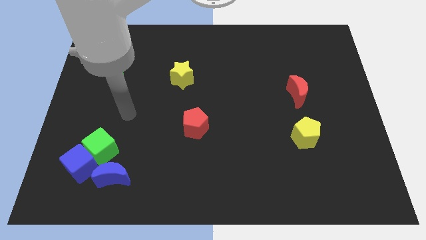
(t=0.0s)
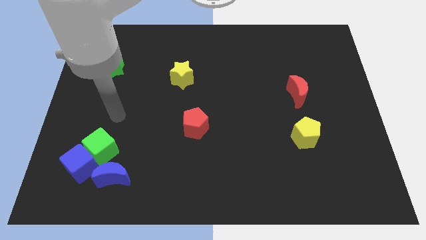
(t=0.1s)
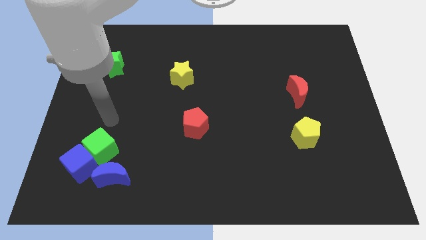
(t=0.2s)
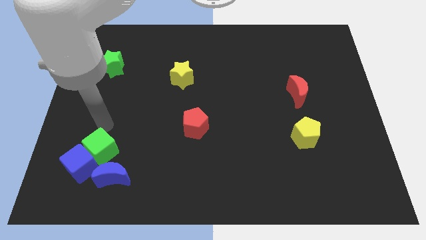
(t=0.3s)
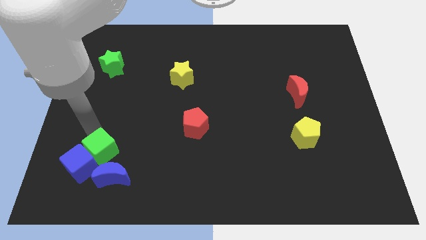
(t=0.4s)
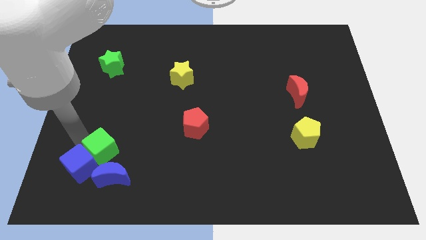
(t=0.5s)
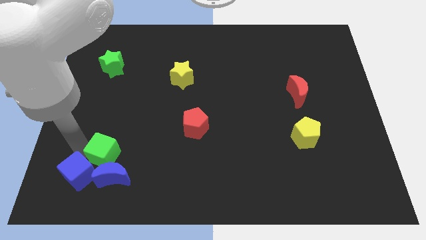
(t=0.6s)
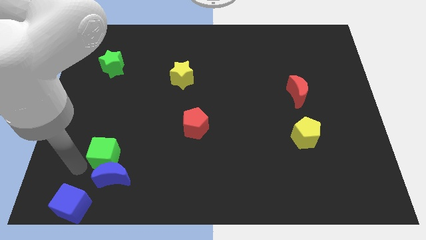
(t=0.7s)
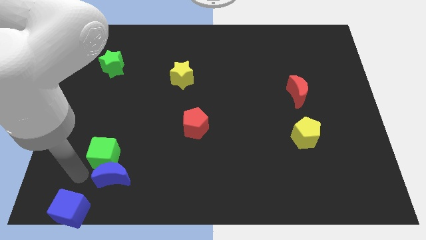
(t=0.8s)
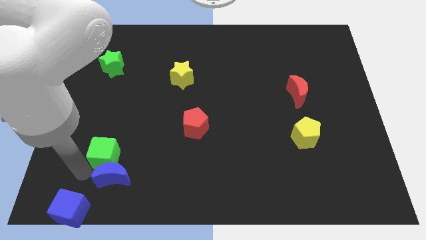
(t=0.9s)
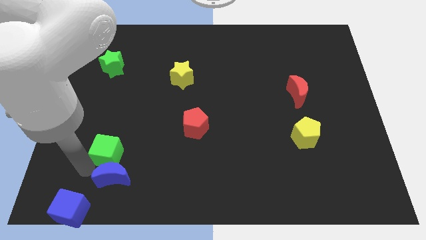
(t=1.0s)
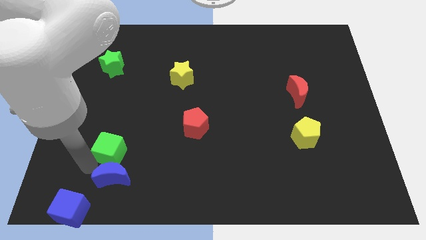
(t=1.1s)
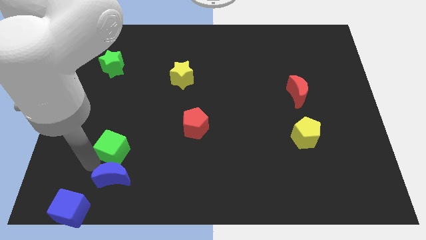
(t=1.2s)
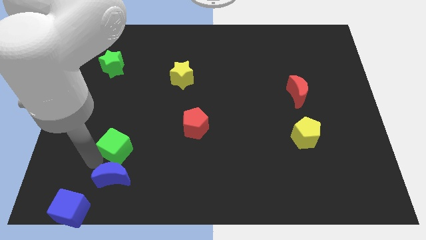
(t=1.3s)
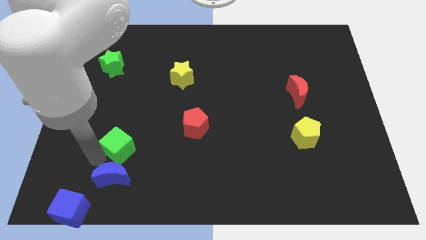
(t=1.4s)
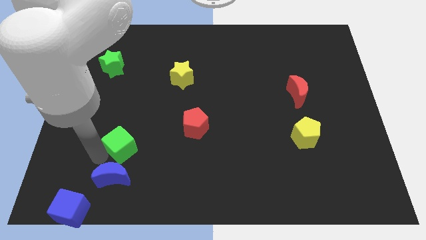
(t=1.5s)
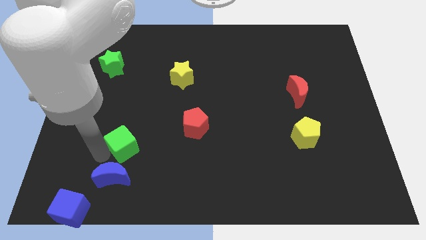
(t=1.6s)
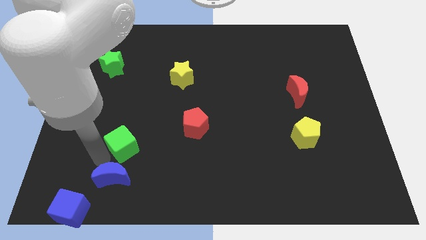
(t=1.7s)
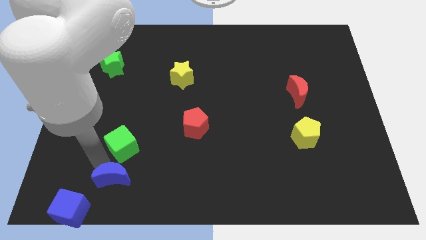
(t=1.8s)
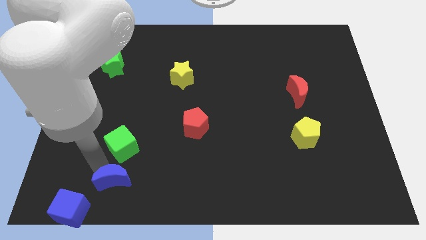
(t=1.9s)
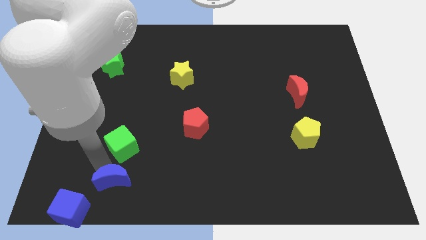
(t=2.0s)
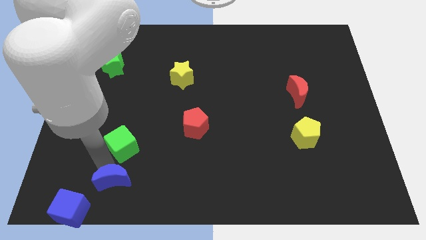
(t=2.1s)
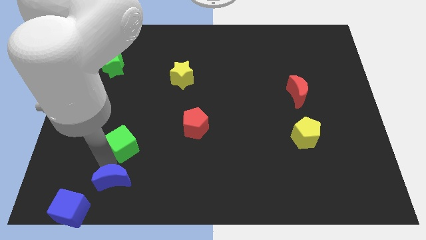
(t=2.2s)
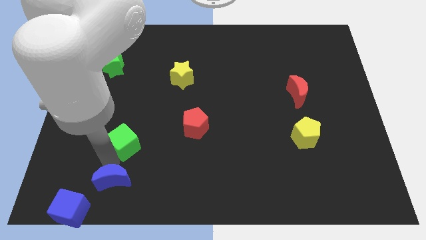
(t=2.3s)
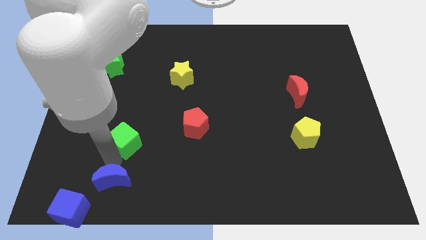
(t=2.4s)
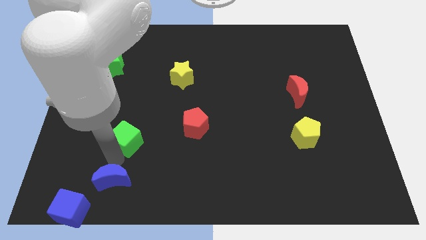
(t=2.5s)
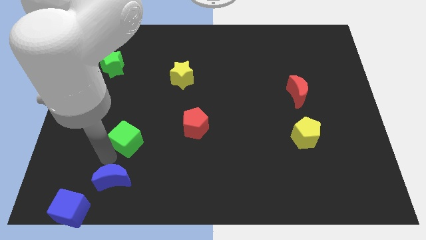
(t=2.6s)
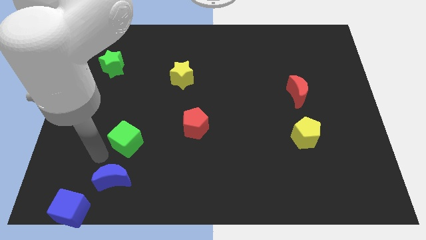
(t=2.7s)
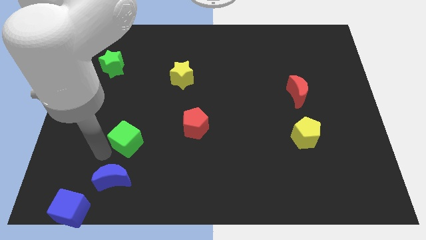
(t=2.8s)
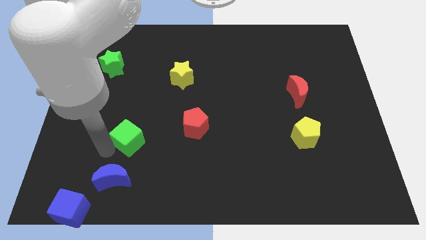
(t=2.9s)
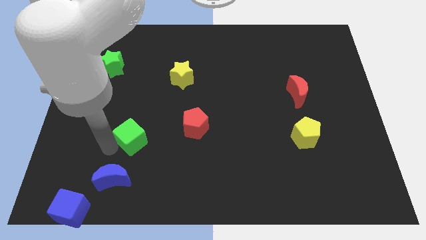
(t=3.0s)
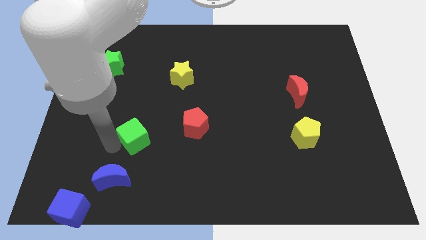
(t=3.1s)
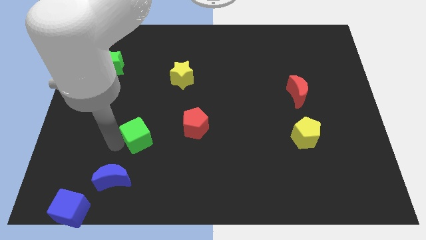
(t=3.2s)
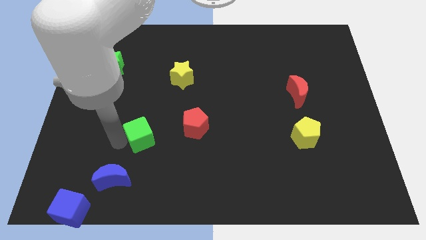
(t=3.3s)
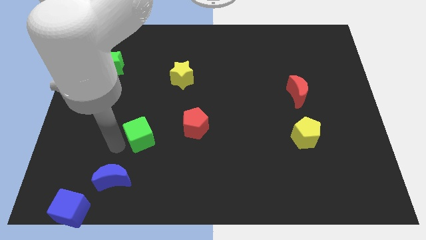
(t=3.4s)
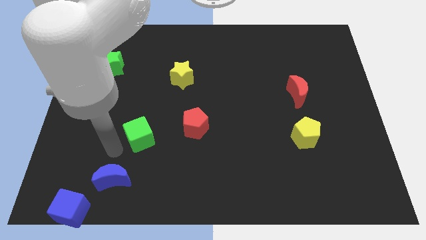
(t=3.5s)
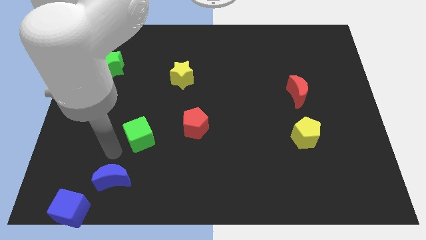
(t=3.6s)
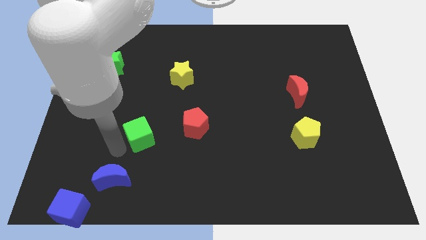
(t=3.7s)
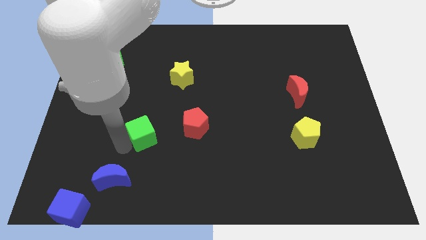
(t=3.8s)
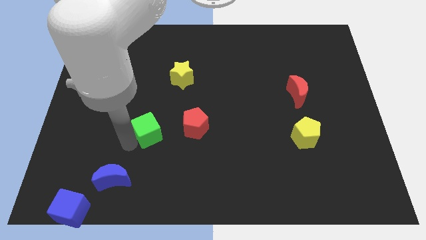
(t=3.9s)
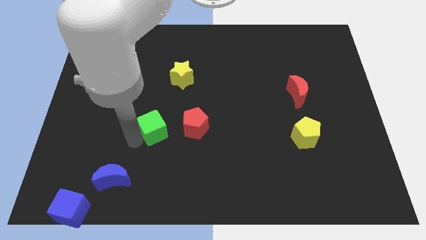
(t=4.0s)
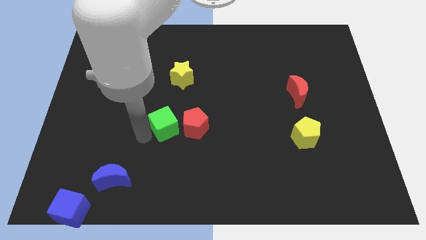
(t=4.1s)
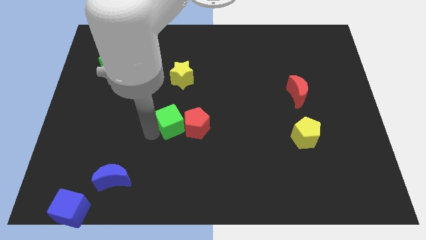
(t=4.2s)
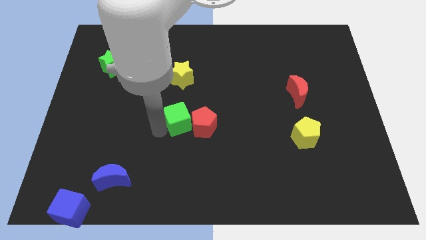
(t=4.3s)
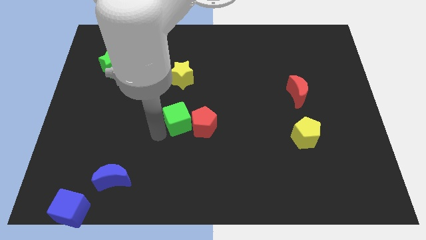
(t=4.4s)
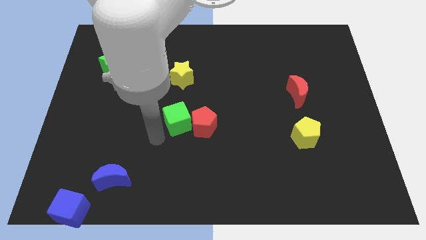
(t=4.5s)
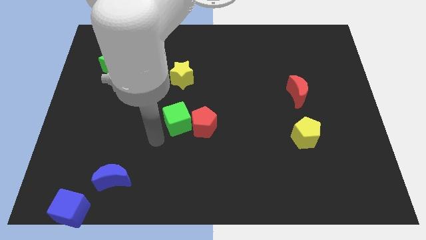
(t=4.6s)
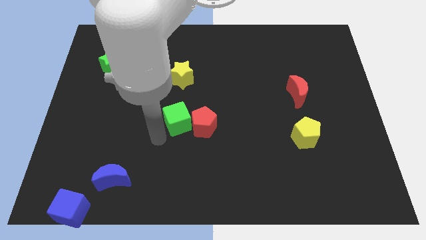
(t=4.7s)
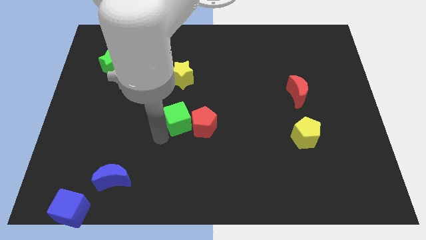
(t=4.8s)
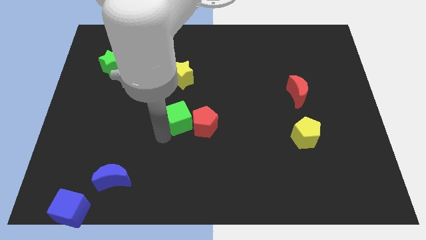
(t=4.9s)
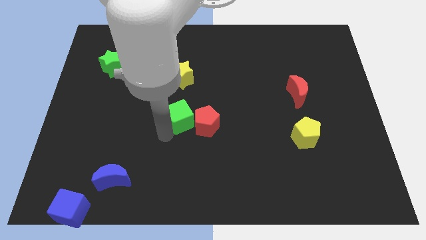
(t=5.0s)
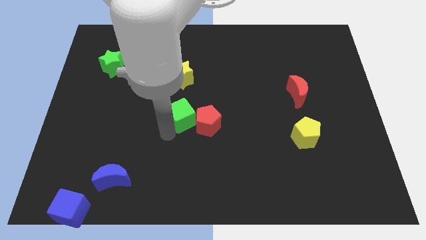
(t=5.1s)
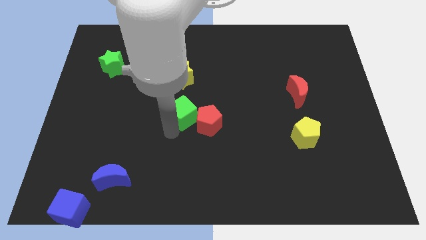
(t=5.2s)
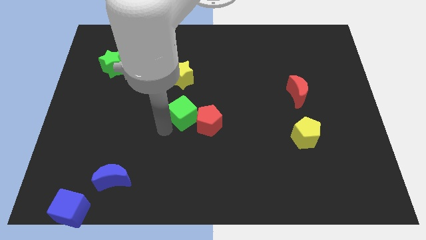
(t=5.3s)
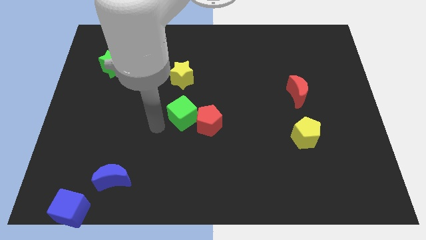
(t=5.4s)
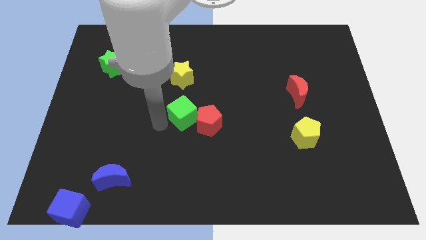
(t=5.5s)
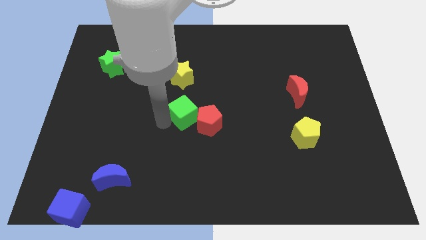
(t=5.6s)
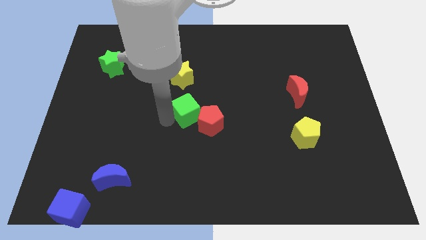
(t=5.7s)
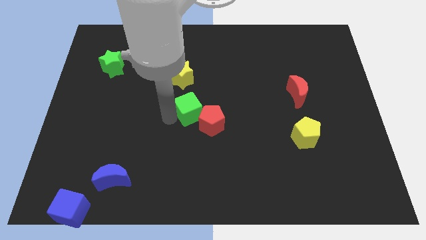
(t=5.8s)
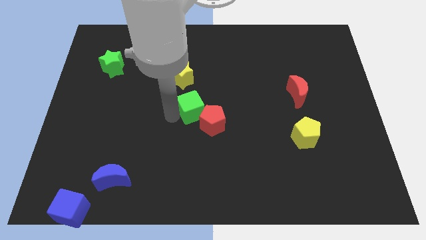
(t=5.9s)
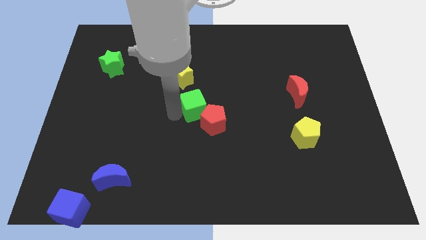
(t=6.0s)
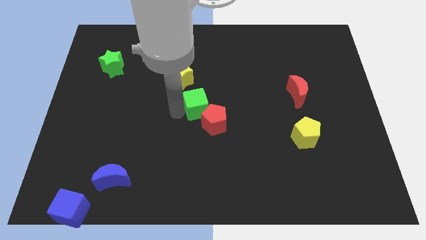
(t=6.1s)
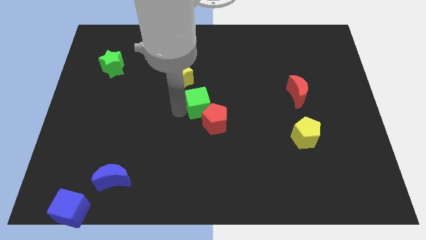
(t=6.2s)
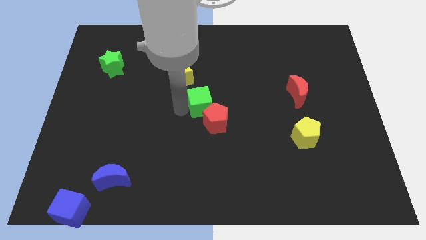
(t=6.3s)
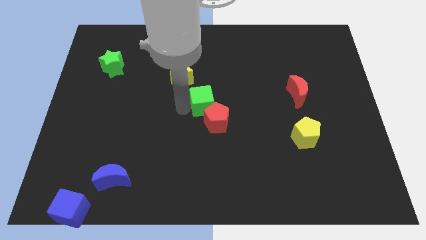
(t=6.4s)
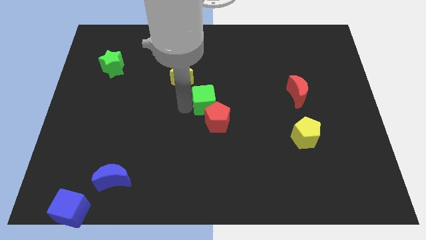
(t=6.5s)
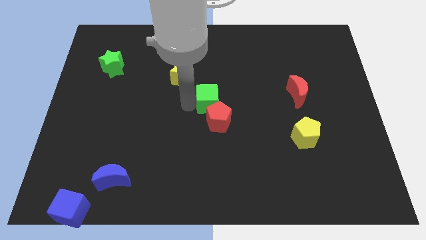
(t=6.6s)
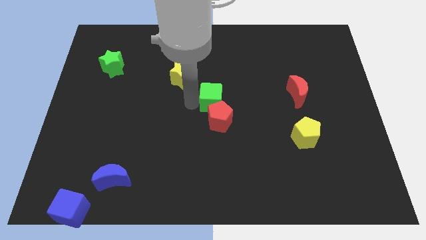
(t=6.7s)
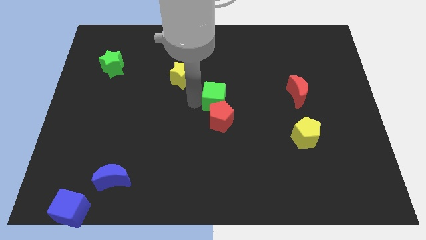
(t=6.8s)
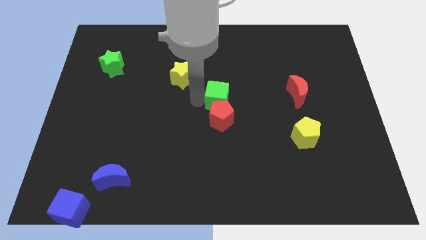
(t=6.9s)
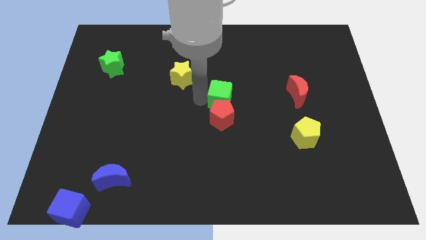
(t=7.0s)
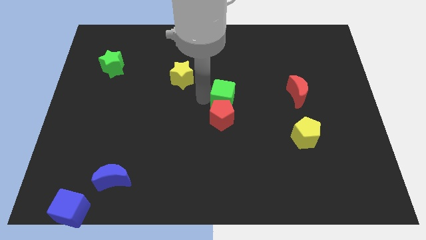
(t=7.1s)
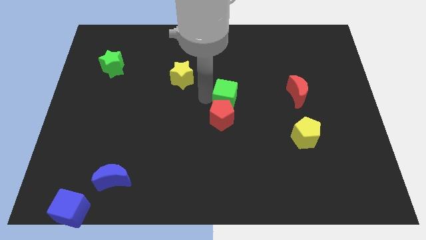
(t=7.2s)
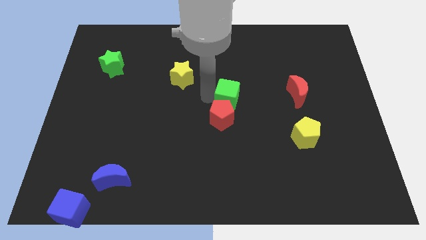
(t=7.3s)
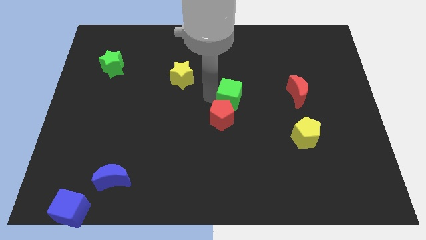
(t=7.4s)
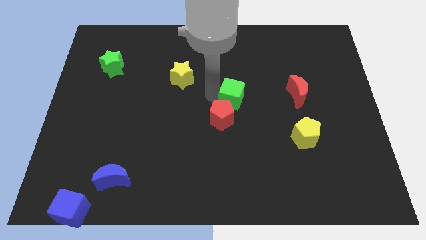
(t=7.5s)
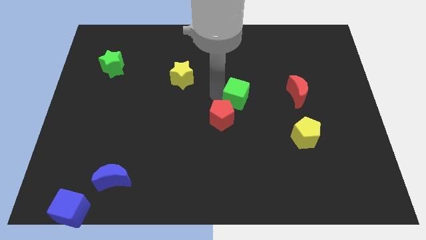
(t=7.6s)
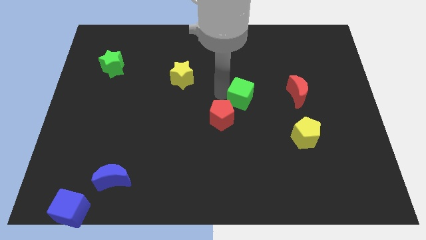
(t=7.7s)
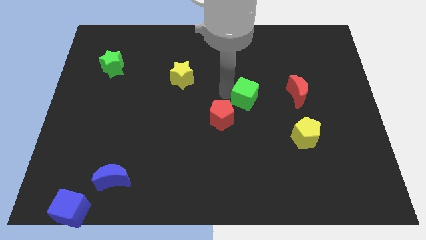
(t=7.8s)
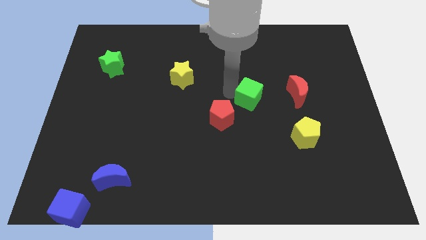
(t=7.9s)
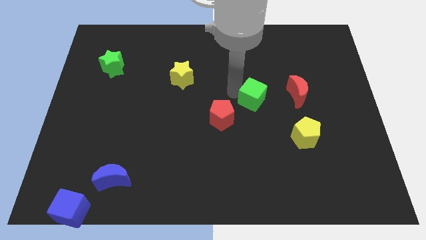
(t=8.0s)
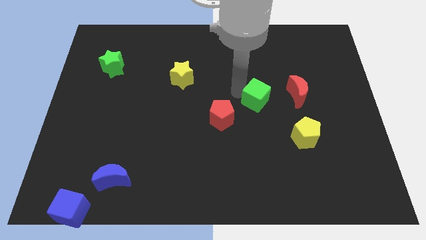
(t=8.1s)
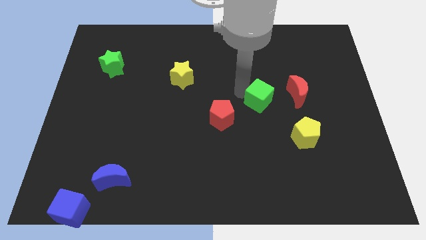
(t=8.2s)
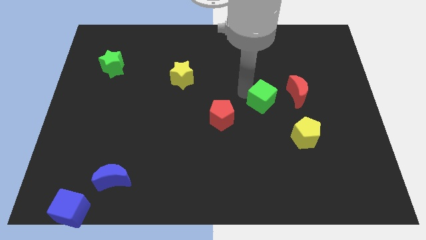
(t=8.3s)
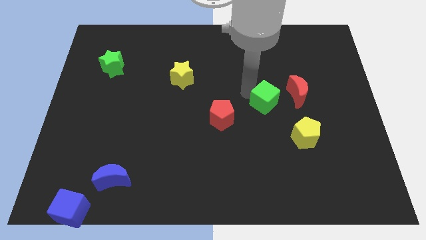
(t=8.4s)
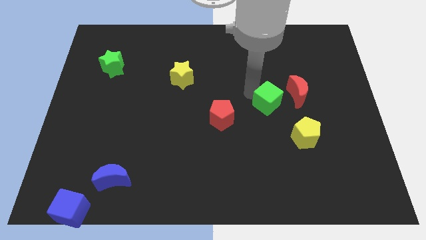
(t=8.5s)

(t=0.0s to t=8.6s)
slide the green cube to the top left of the yellow pentagon
